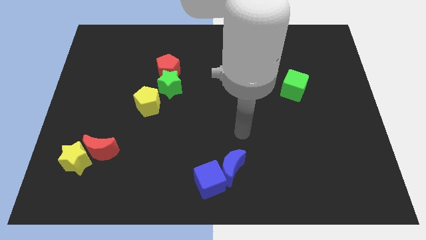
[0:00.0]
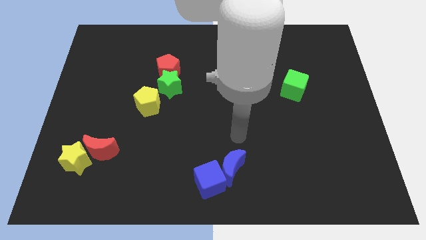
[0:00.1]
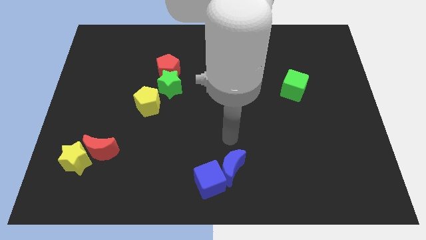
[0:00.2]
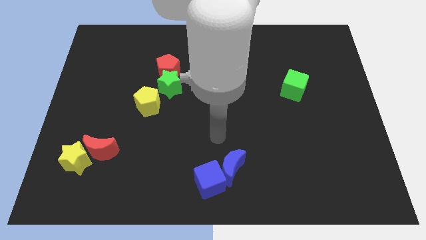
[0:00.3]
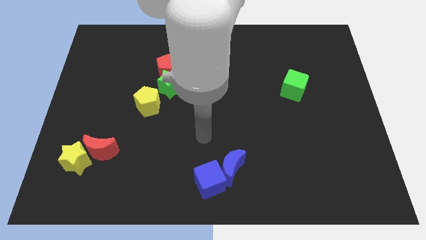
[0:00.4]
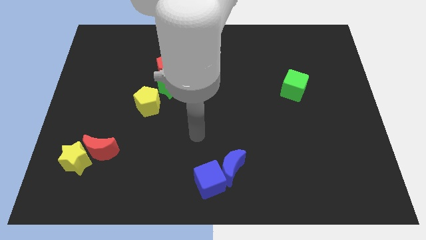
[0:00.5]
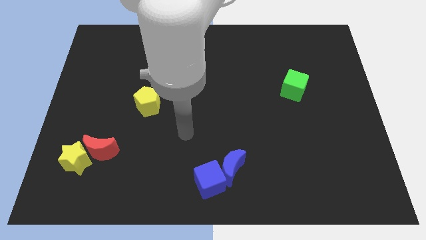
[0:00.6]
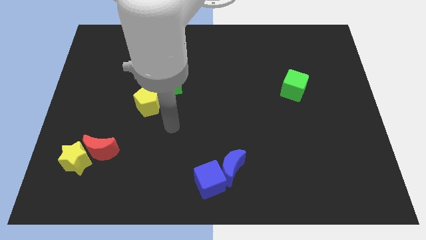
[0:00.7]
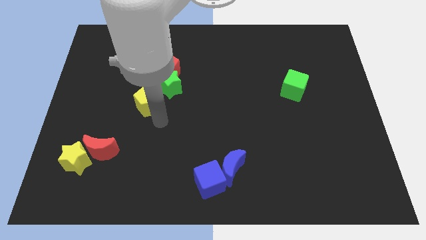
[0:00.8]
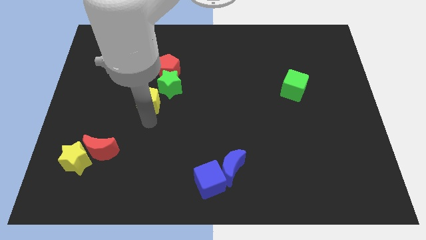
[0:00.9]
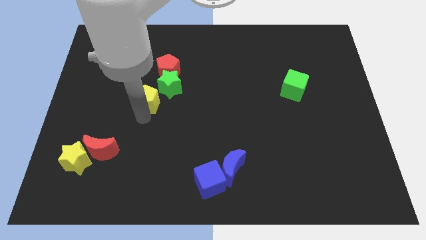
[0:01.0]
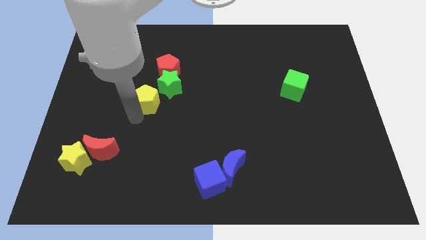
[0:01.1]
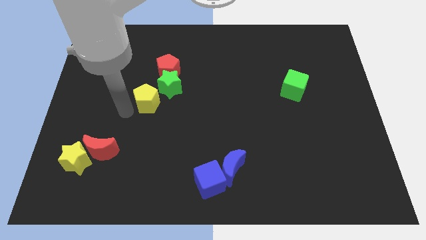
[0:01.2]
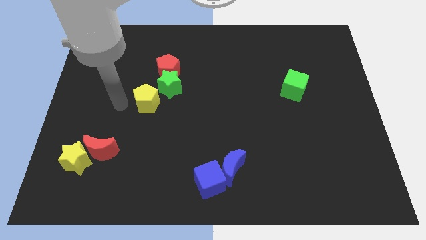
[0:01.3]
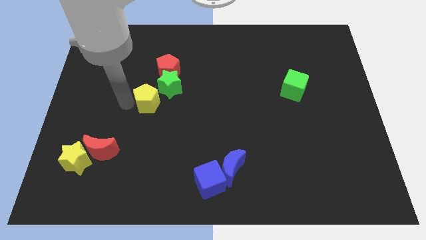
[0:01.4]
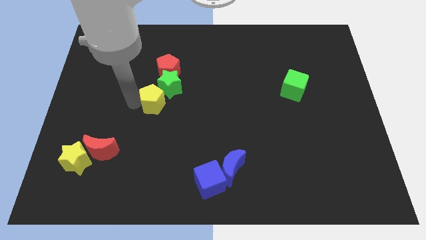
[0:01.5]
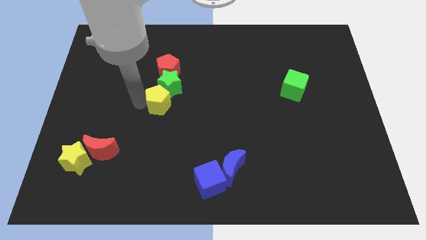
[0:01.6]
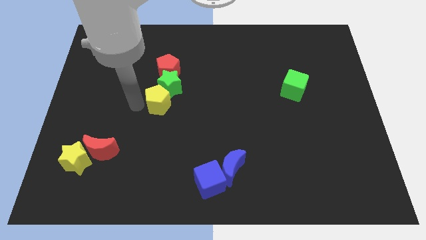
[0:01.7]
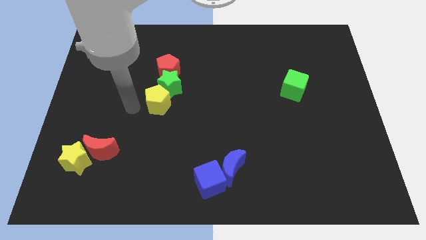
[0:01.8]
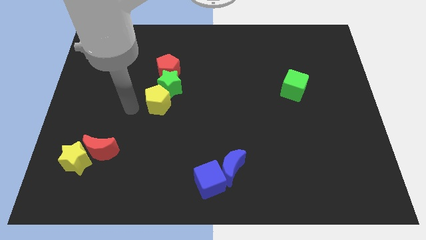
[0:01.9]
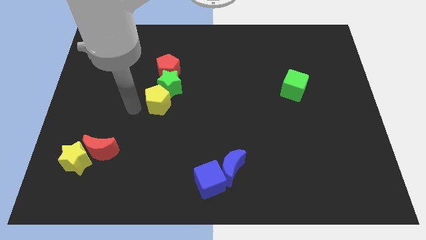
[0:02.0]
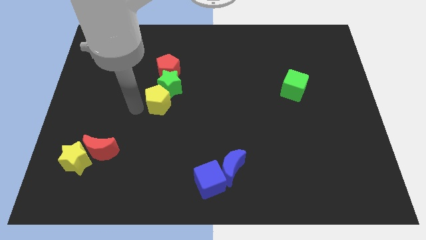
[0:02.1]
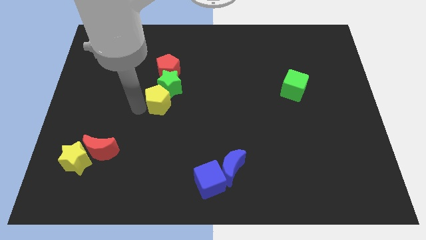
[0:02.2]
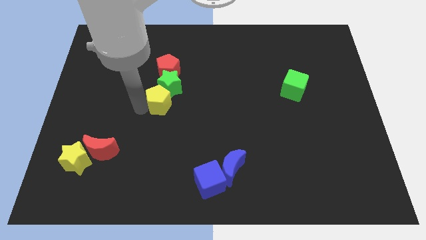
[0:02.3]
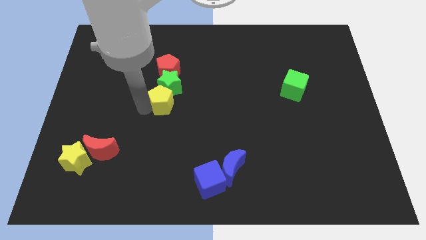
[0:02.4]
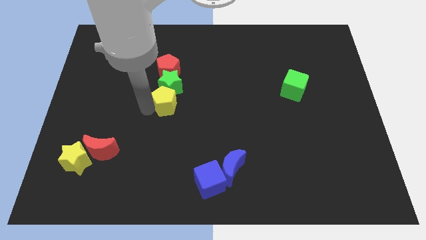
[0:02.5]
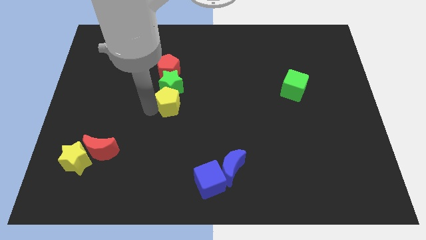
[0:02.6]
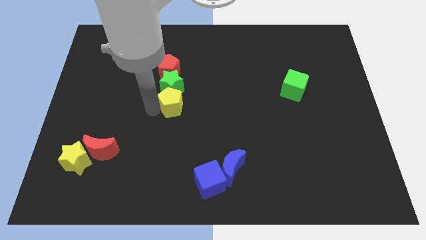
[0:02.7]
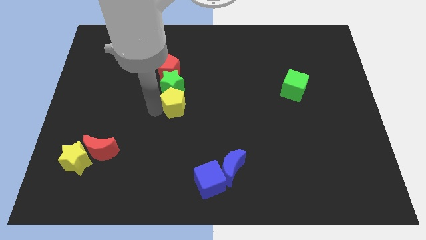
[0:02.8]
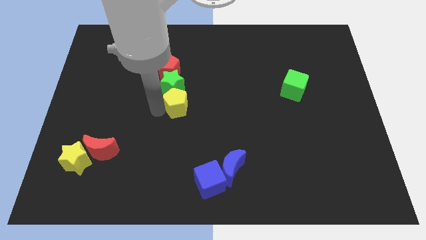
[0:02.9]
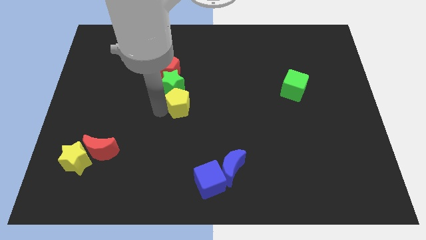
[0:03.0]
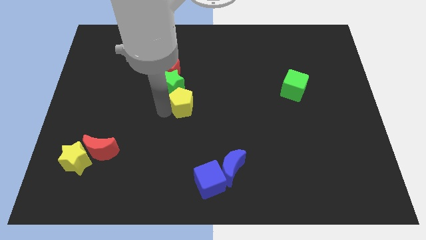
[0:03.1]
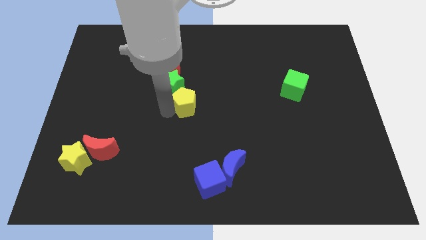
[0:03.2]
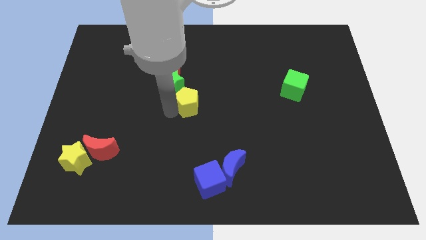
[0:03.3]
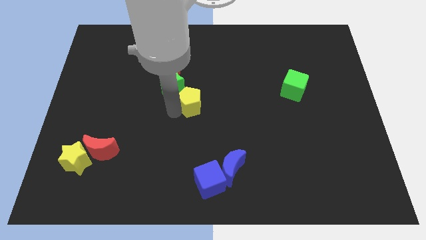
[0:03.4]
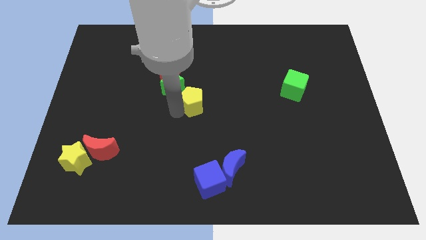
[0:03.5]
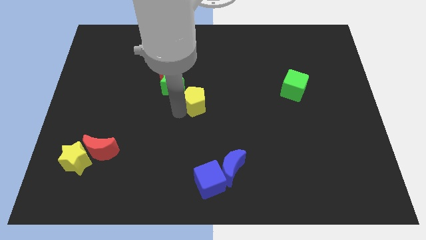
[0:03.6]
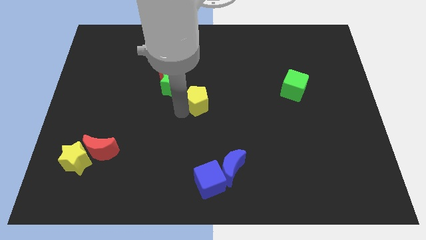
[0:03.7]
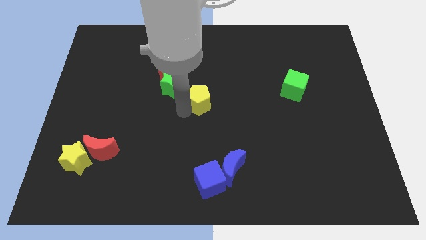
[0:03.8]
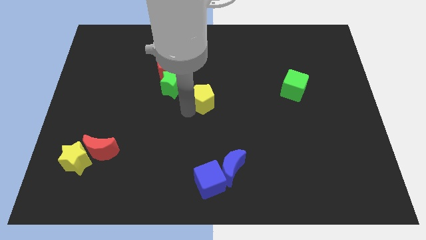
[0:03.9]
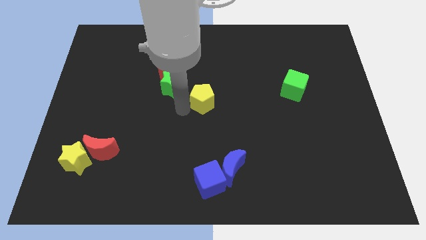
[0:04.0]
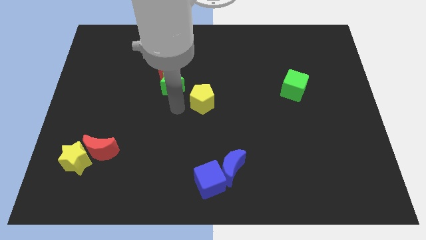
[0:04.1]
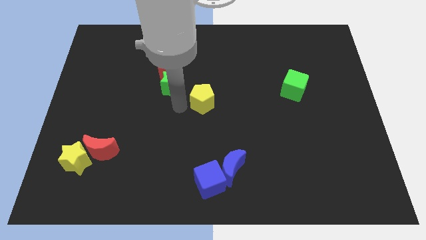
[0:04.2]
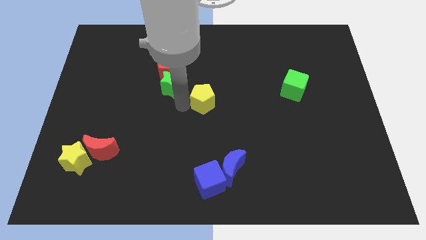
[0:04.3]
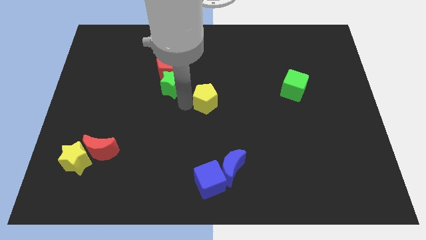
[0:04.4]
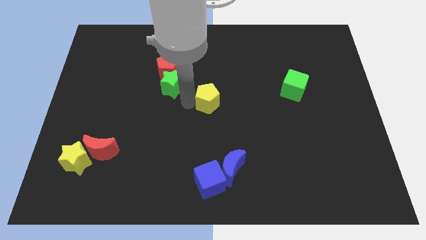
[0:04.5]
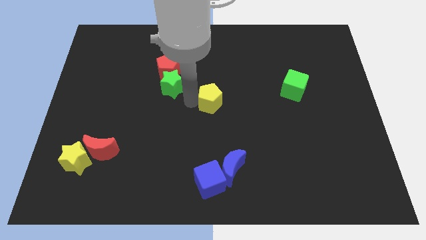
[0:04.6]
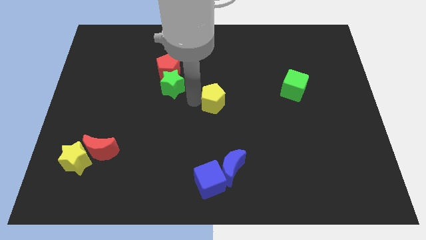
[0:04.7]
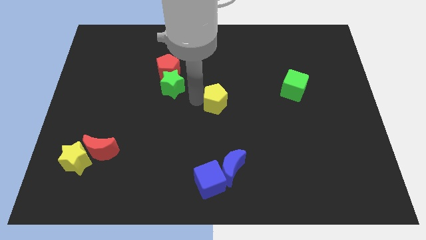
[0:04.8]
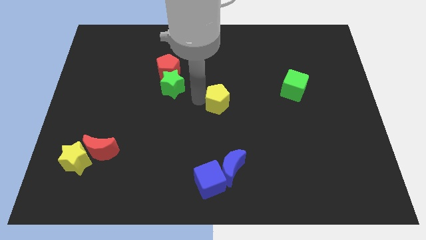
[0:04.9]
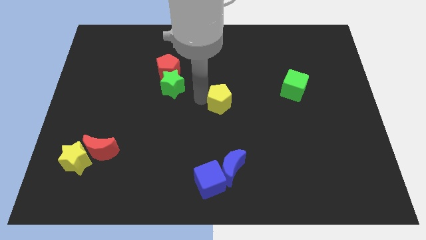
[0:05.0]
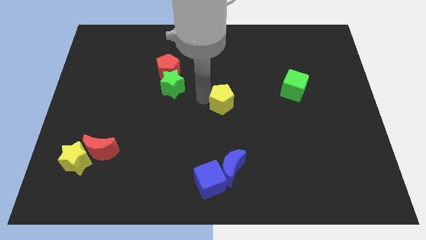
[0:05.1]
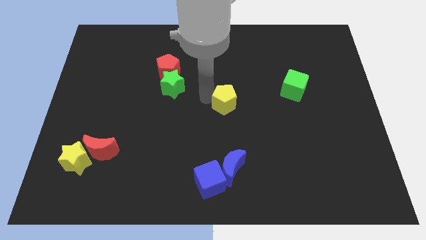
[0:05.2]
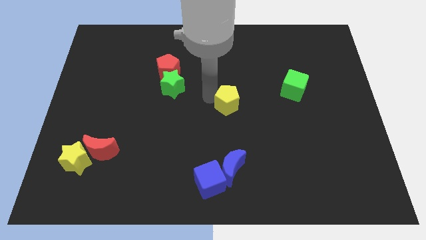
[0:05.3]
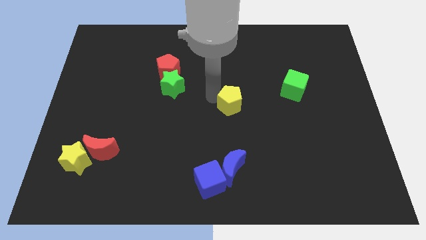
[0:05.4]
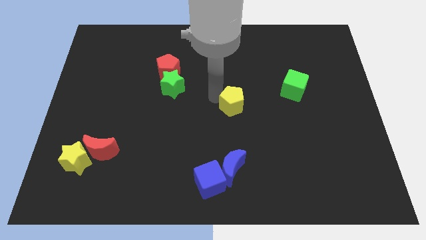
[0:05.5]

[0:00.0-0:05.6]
push the yellow pentagon to the right

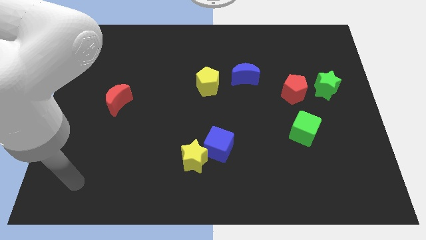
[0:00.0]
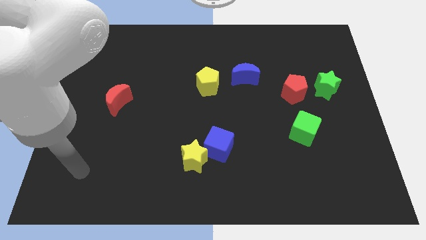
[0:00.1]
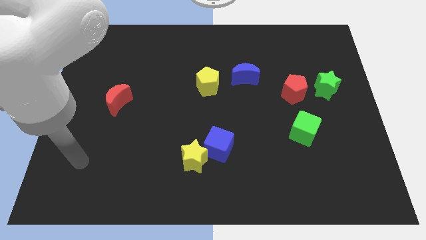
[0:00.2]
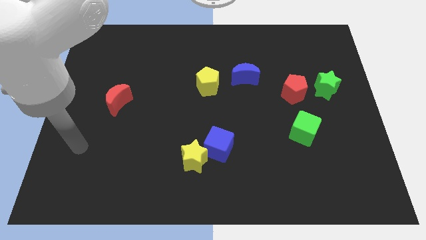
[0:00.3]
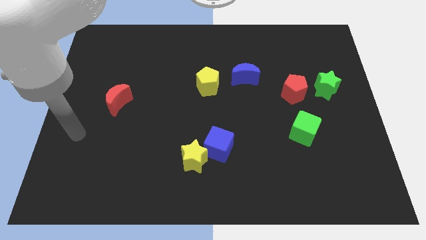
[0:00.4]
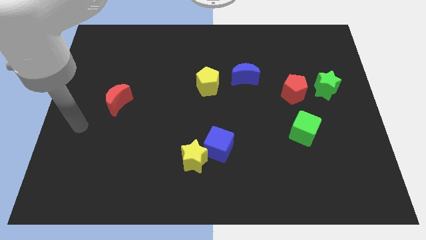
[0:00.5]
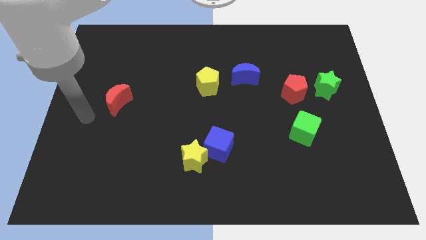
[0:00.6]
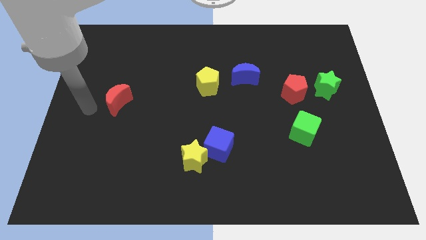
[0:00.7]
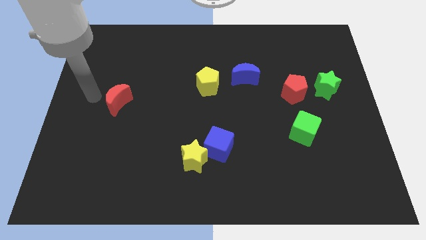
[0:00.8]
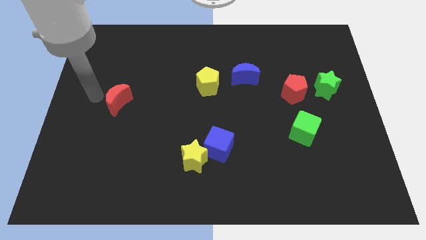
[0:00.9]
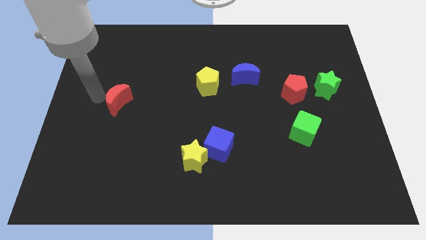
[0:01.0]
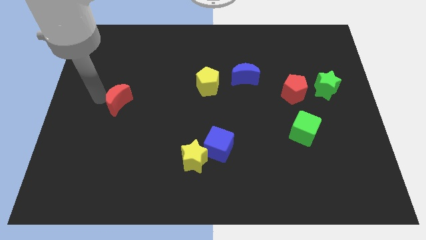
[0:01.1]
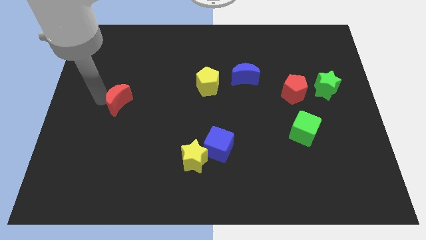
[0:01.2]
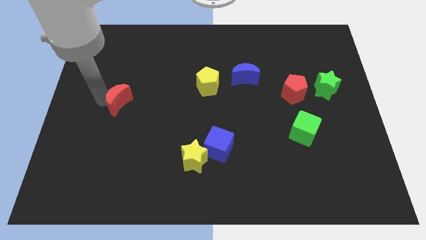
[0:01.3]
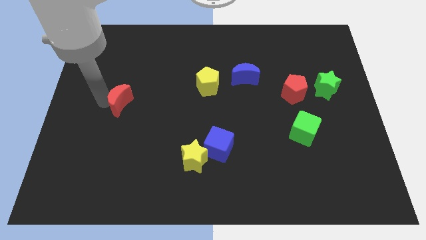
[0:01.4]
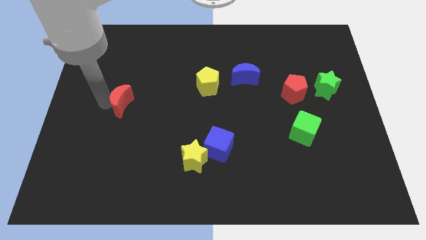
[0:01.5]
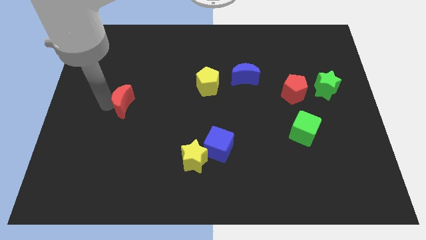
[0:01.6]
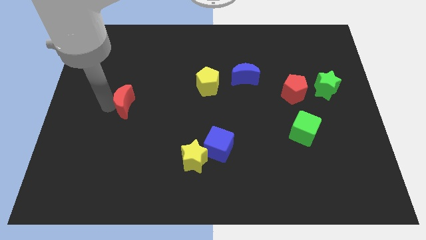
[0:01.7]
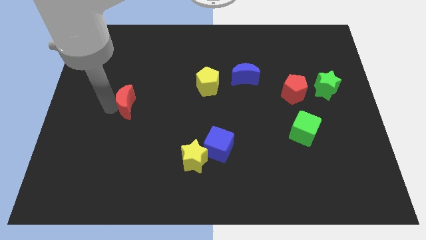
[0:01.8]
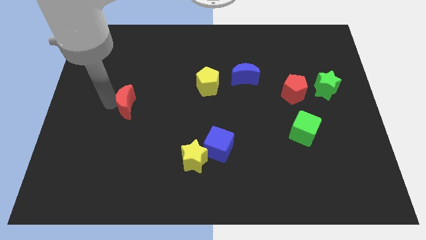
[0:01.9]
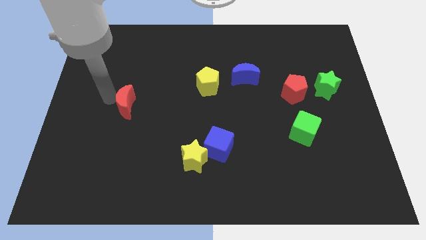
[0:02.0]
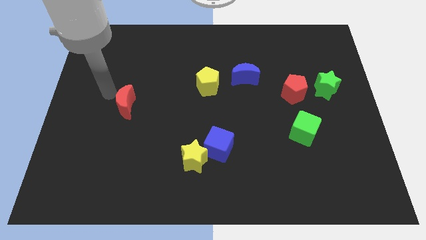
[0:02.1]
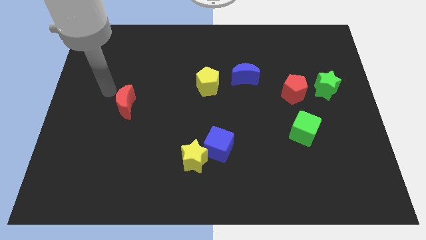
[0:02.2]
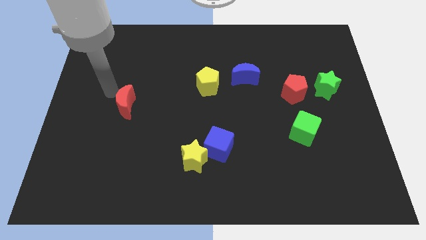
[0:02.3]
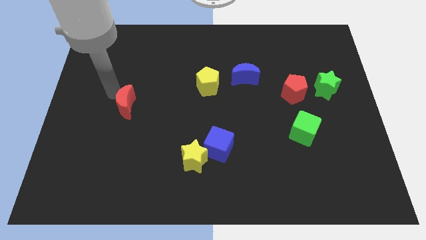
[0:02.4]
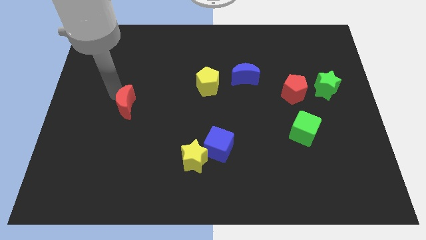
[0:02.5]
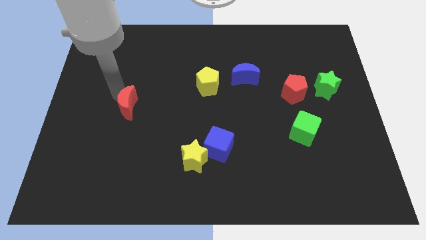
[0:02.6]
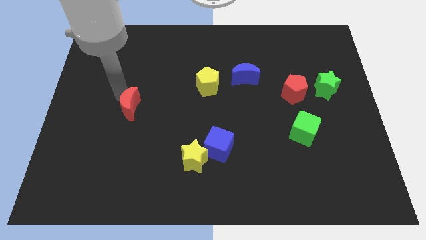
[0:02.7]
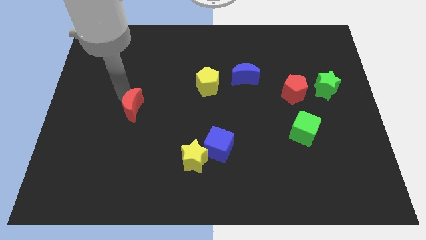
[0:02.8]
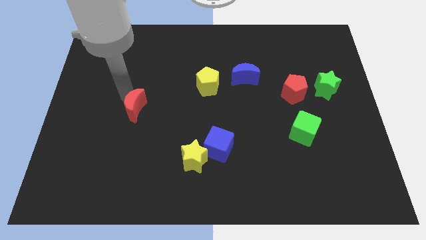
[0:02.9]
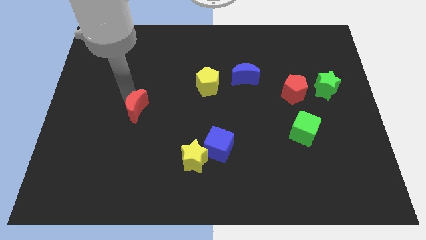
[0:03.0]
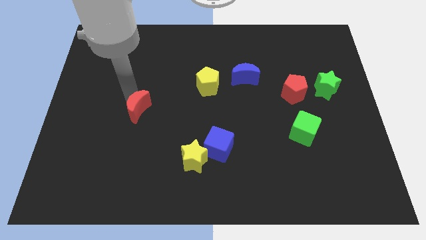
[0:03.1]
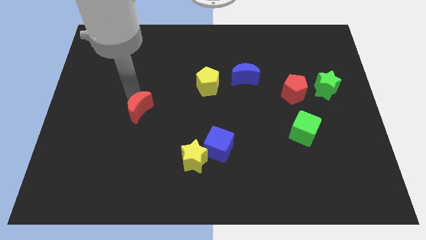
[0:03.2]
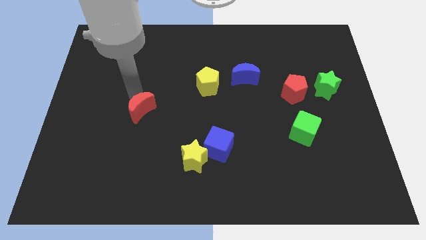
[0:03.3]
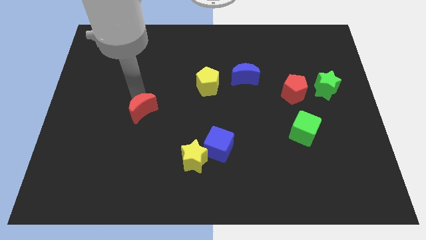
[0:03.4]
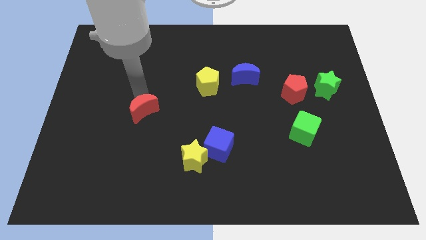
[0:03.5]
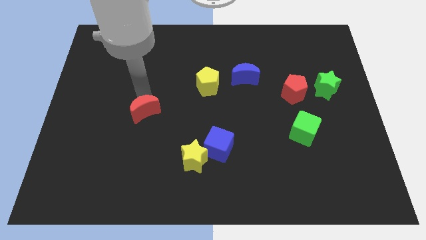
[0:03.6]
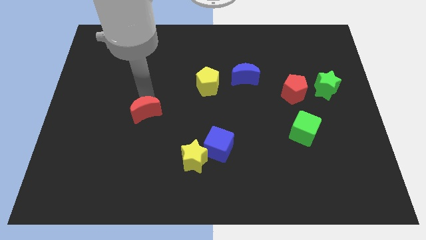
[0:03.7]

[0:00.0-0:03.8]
slide the red moon a bit down and then right
